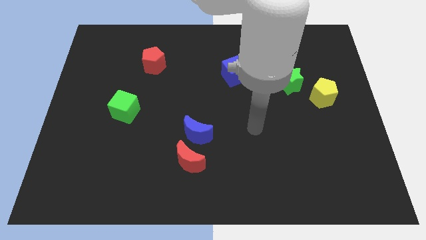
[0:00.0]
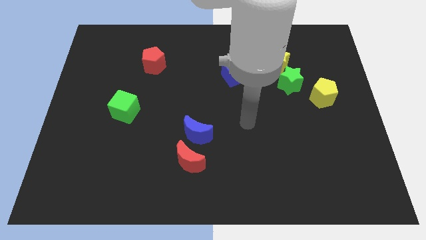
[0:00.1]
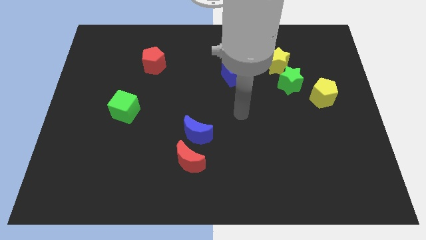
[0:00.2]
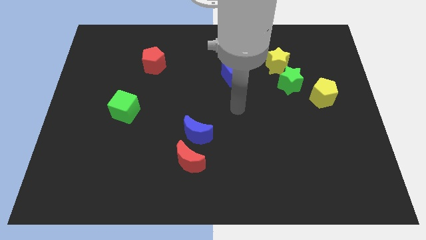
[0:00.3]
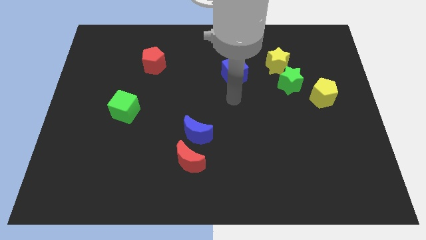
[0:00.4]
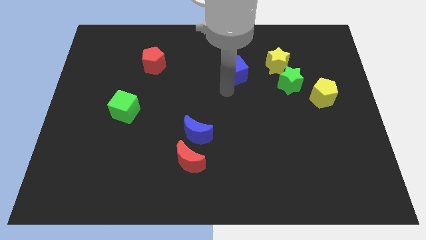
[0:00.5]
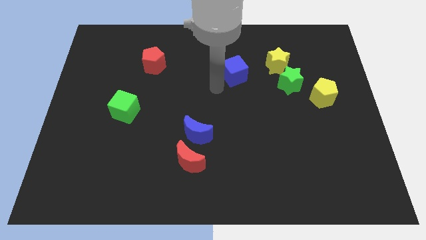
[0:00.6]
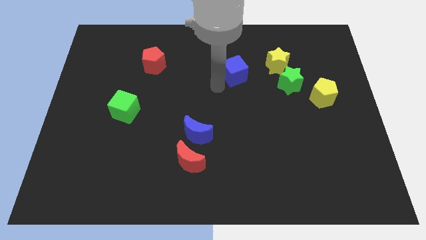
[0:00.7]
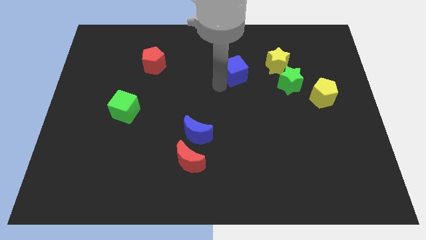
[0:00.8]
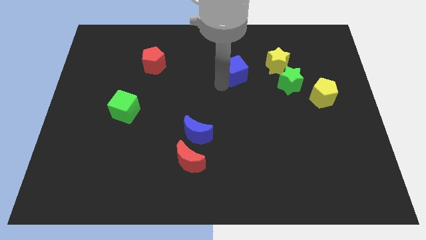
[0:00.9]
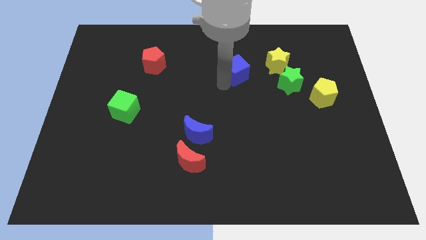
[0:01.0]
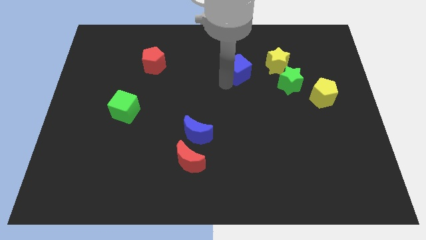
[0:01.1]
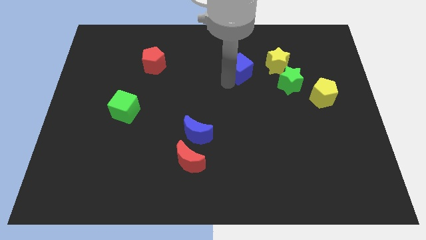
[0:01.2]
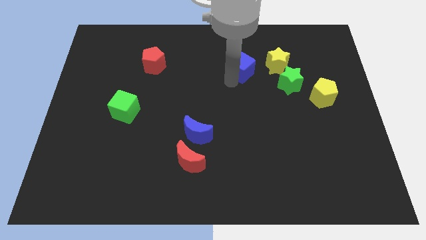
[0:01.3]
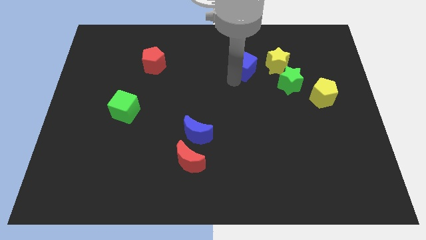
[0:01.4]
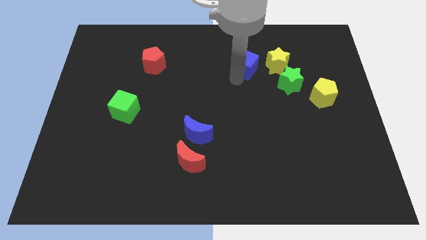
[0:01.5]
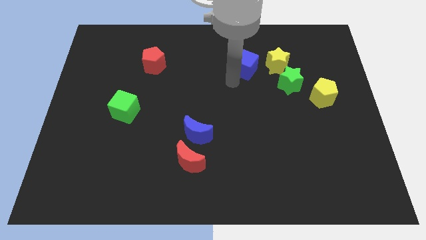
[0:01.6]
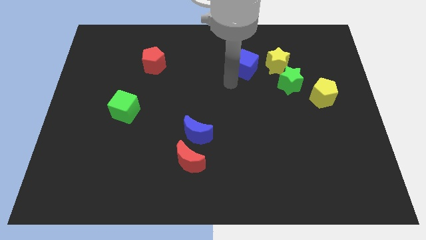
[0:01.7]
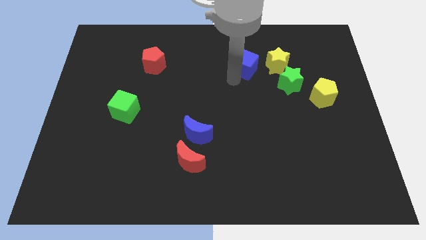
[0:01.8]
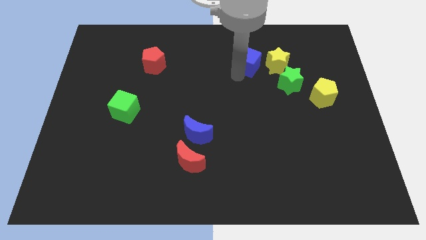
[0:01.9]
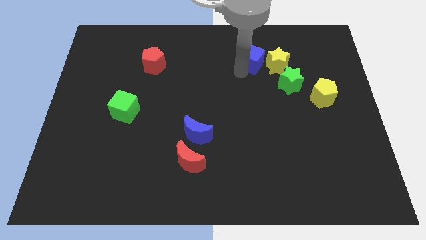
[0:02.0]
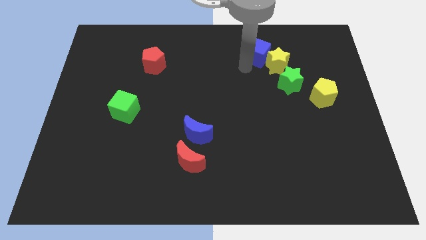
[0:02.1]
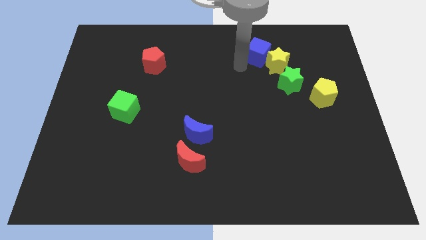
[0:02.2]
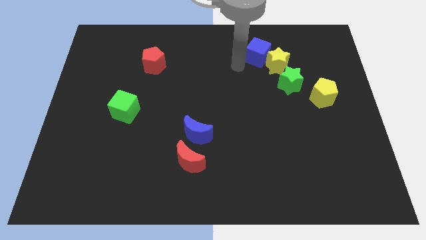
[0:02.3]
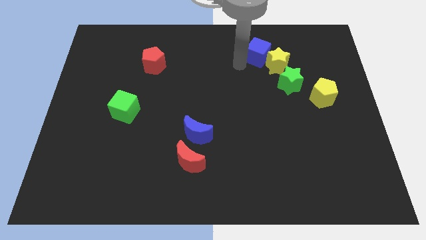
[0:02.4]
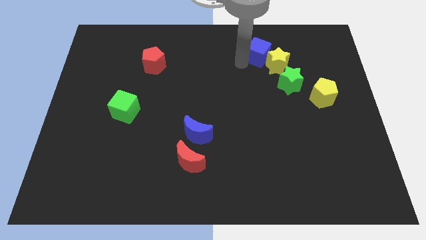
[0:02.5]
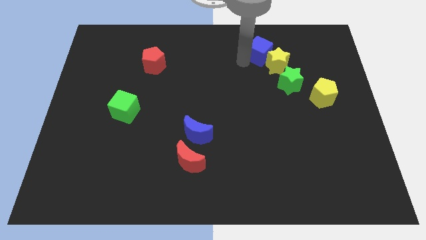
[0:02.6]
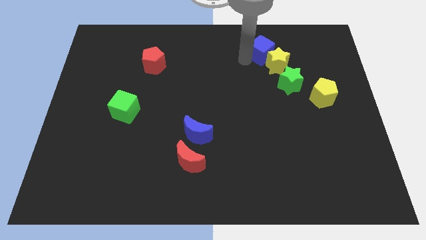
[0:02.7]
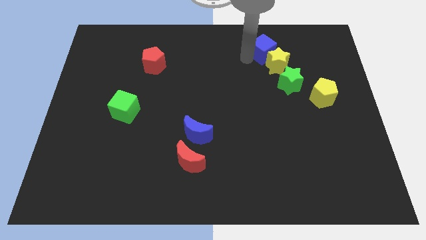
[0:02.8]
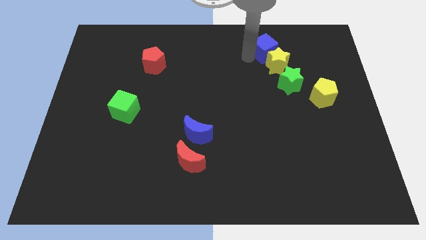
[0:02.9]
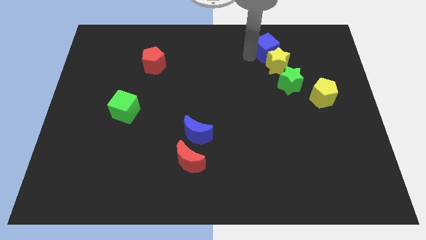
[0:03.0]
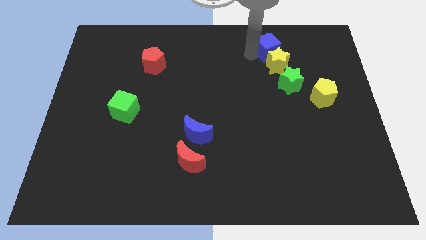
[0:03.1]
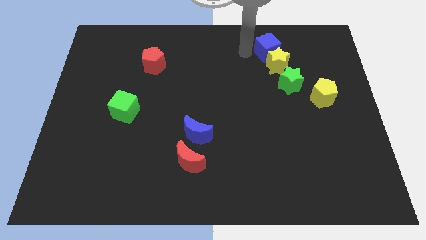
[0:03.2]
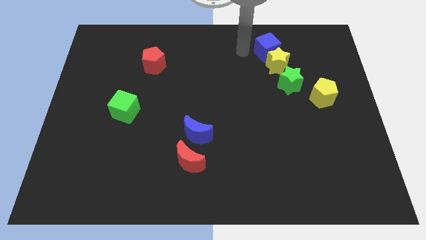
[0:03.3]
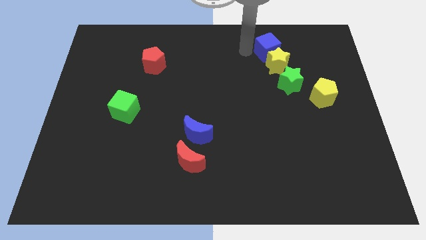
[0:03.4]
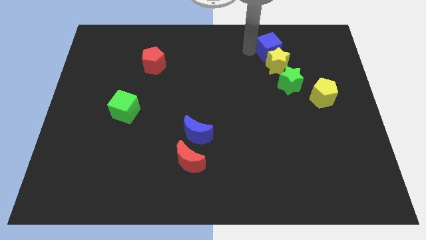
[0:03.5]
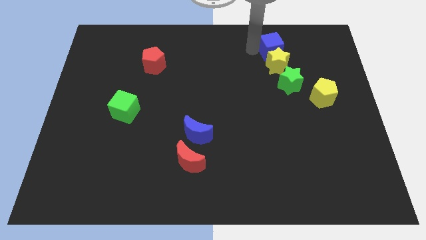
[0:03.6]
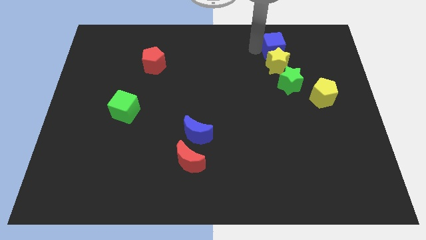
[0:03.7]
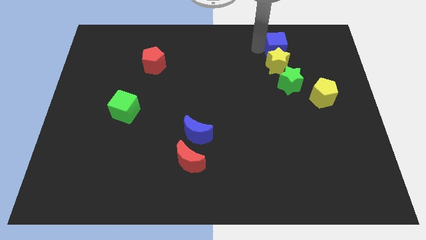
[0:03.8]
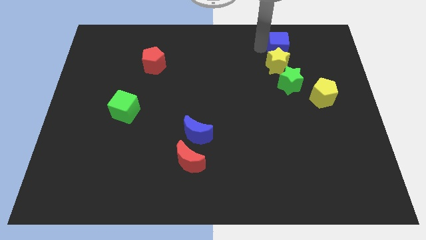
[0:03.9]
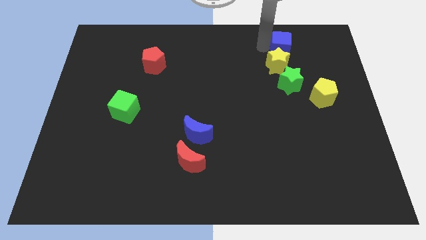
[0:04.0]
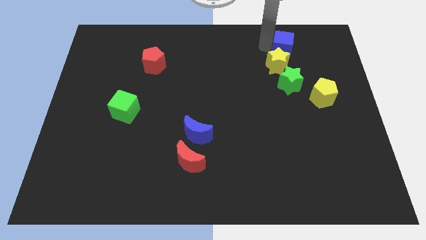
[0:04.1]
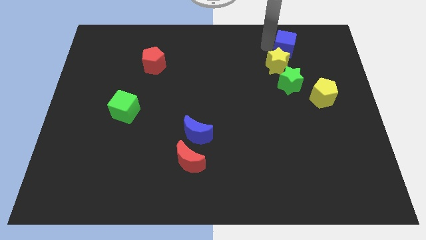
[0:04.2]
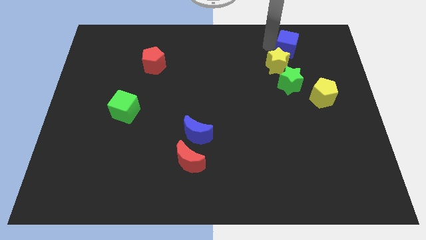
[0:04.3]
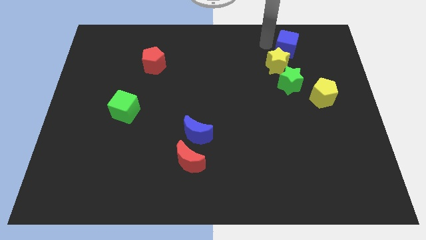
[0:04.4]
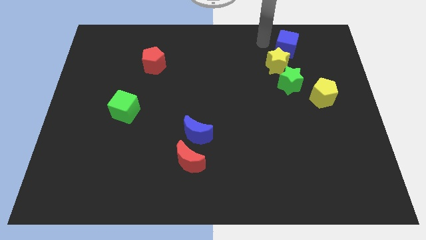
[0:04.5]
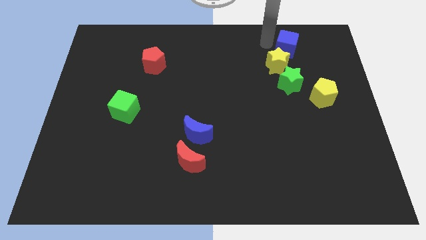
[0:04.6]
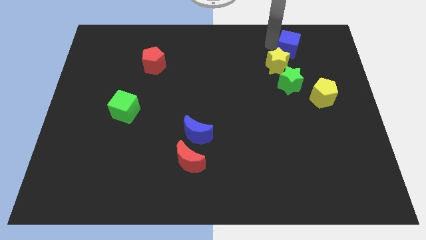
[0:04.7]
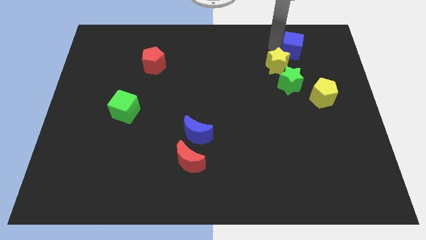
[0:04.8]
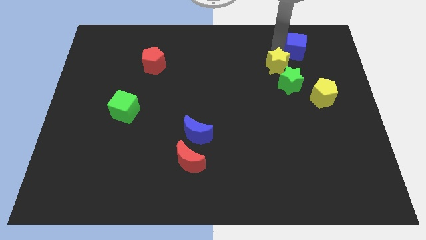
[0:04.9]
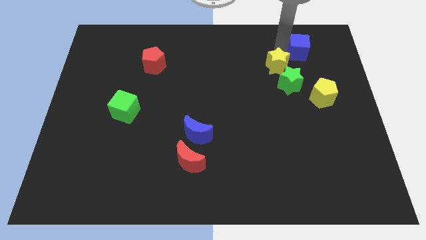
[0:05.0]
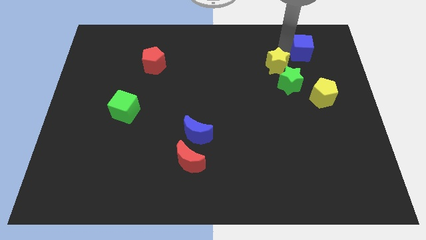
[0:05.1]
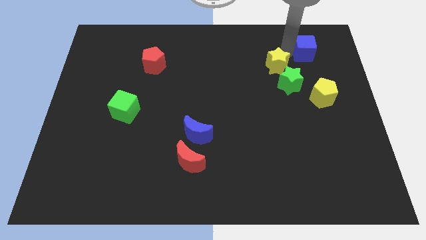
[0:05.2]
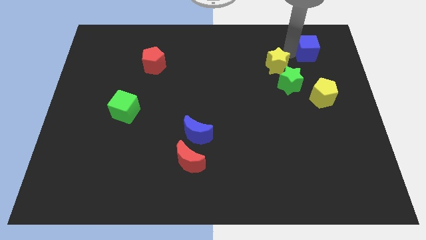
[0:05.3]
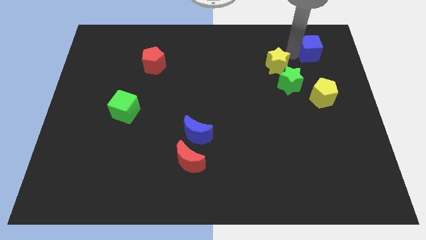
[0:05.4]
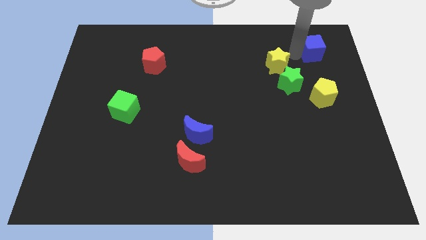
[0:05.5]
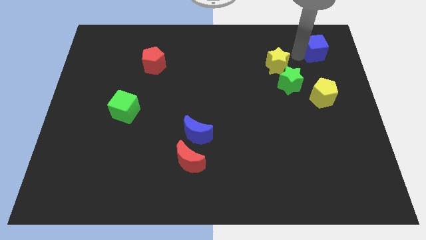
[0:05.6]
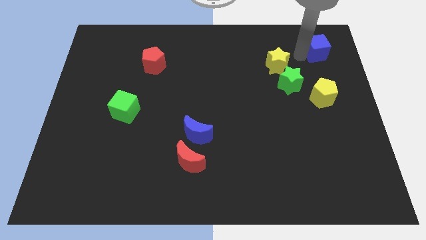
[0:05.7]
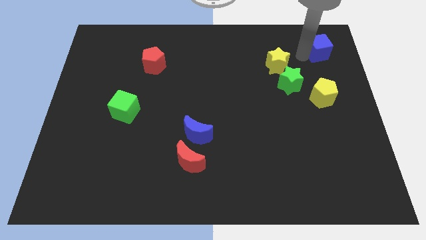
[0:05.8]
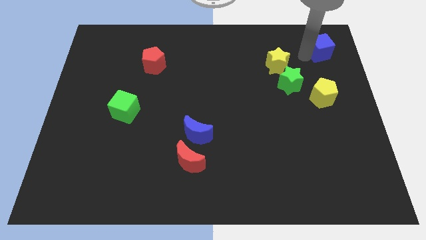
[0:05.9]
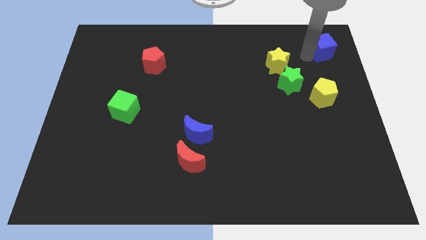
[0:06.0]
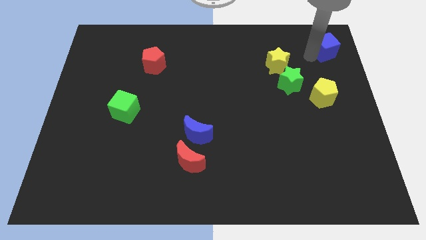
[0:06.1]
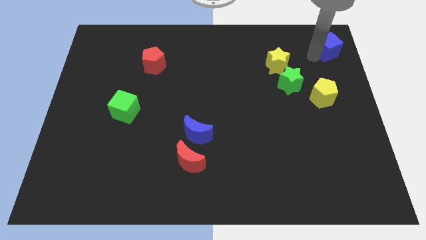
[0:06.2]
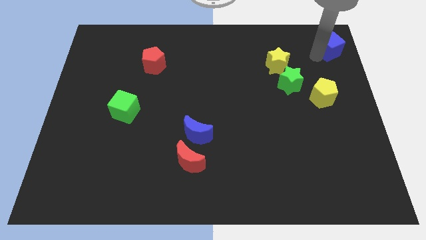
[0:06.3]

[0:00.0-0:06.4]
move the blue cube to the top right corner

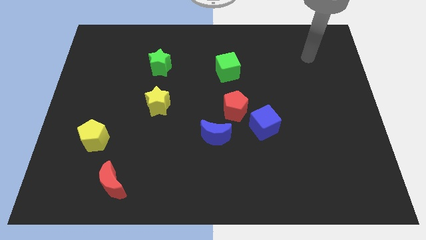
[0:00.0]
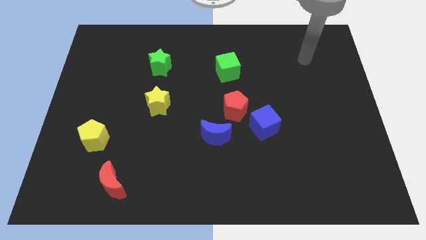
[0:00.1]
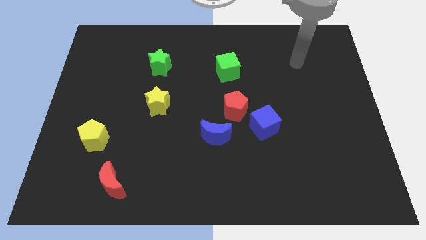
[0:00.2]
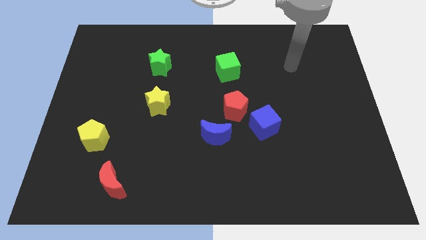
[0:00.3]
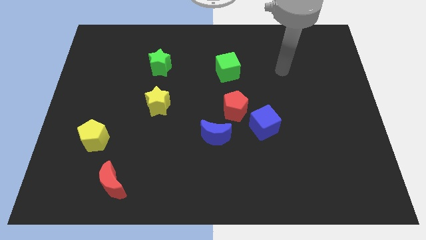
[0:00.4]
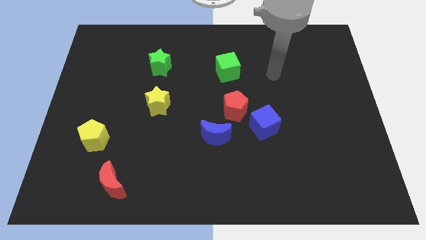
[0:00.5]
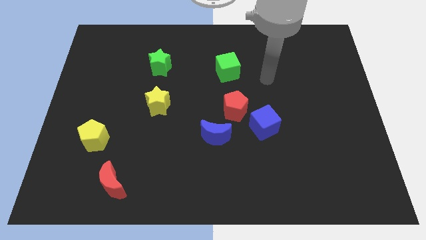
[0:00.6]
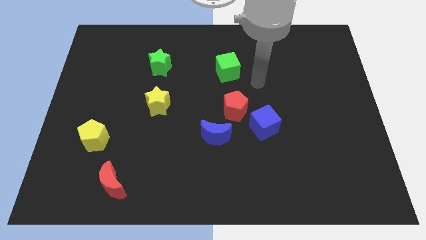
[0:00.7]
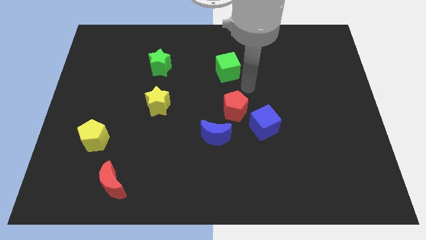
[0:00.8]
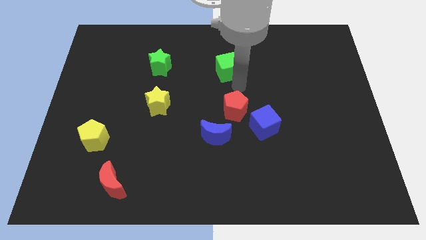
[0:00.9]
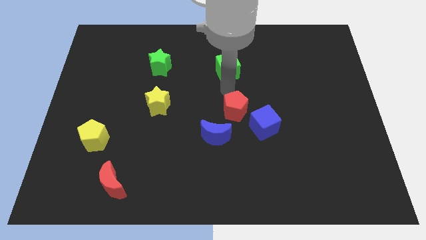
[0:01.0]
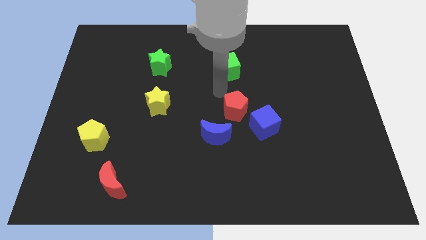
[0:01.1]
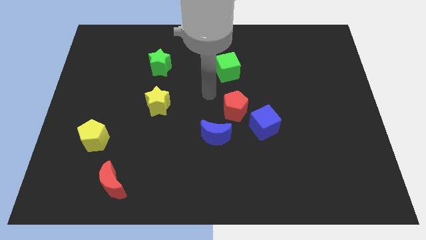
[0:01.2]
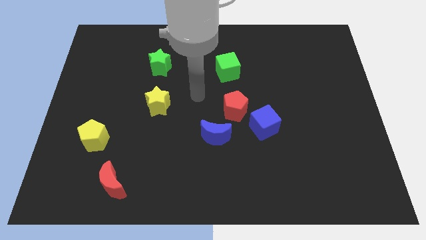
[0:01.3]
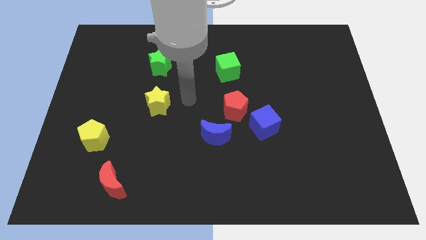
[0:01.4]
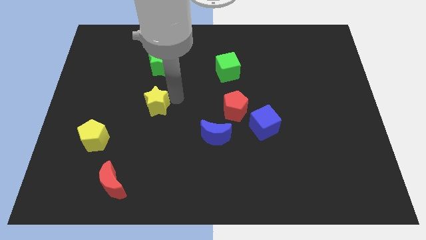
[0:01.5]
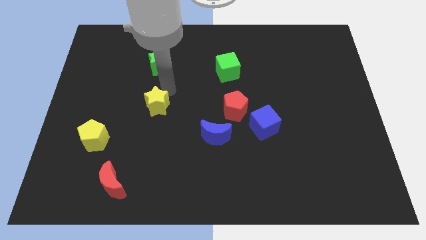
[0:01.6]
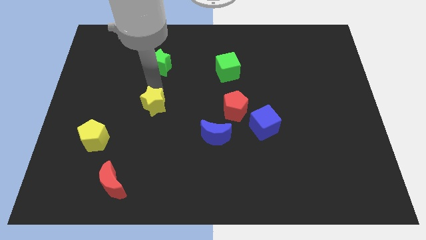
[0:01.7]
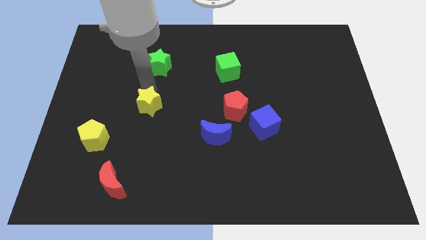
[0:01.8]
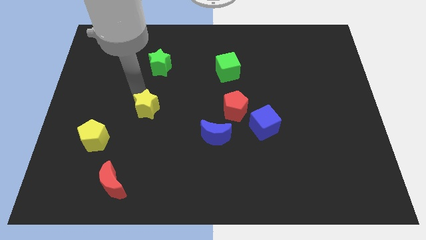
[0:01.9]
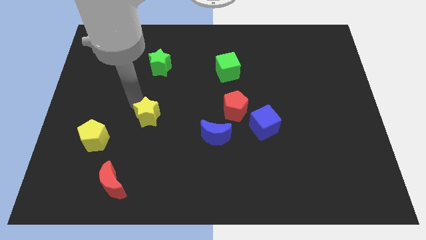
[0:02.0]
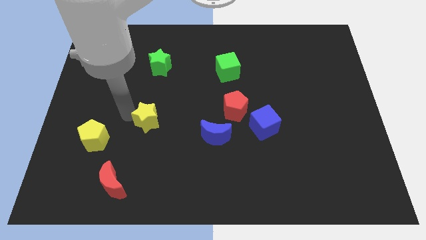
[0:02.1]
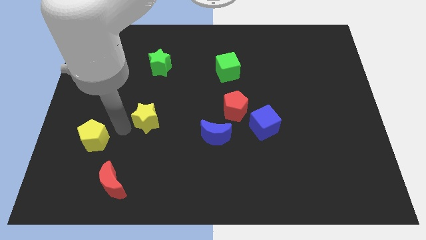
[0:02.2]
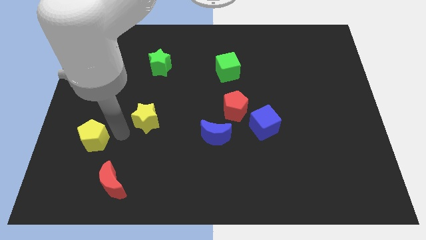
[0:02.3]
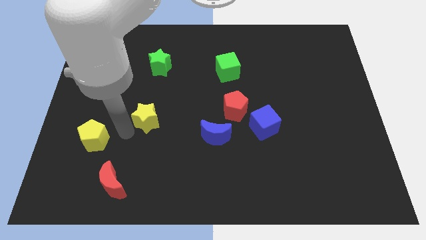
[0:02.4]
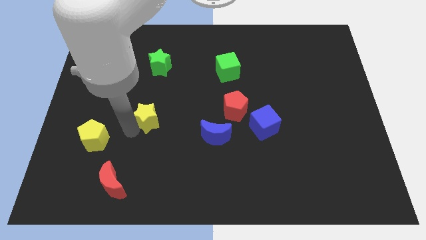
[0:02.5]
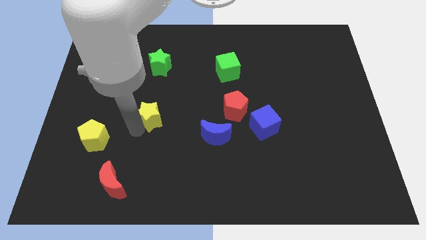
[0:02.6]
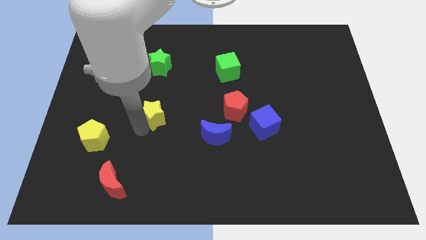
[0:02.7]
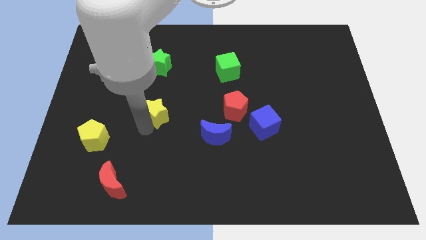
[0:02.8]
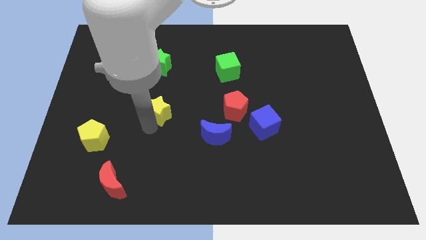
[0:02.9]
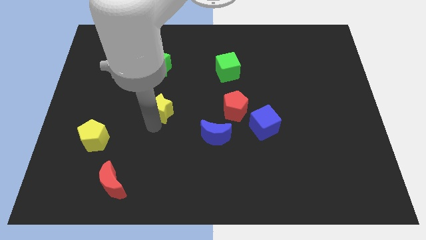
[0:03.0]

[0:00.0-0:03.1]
slide the yellow star to the center
